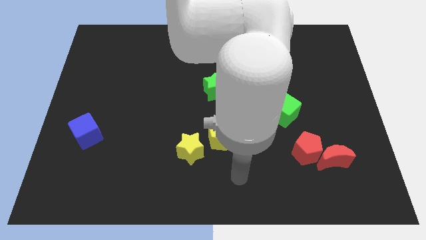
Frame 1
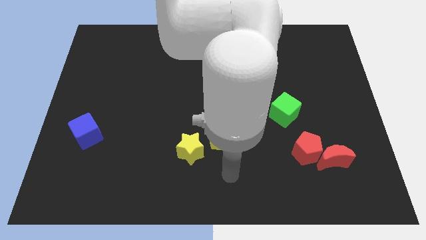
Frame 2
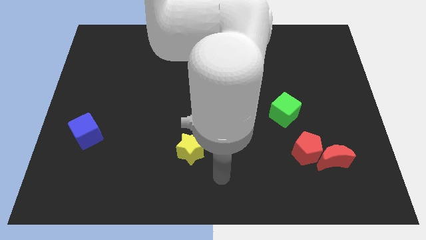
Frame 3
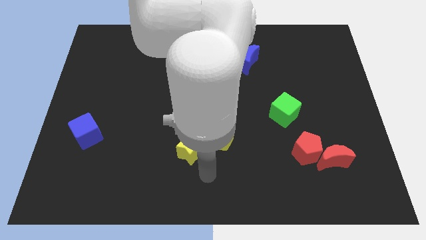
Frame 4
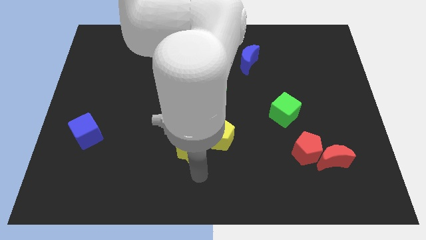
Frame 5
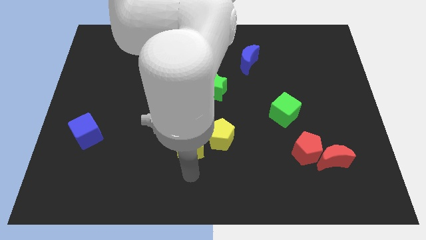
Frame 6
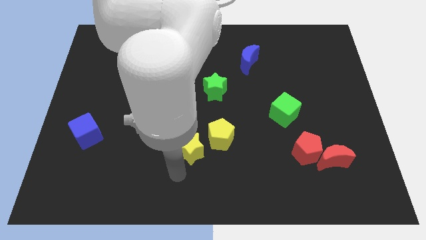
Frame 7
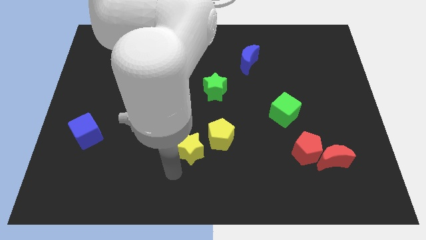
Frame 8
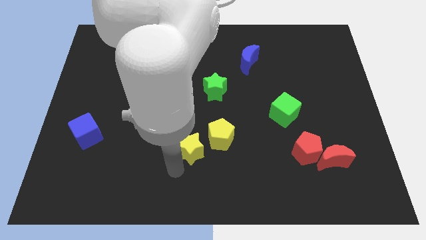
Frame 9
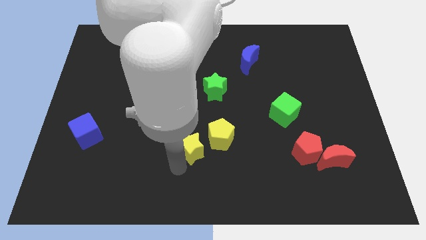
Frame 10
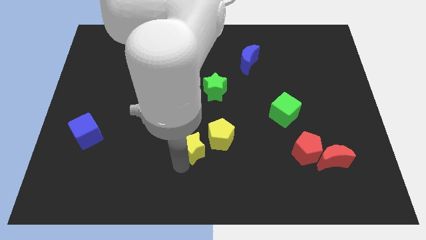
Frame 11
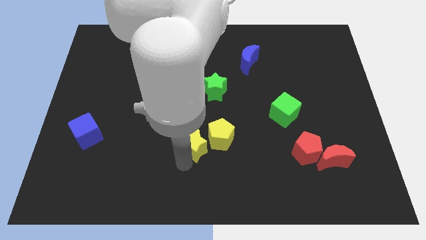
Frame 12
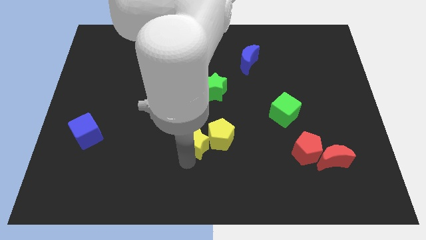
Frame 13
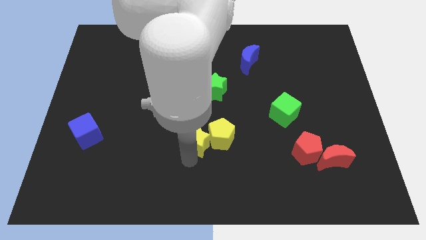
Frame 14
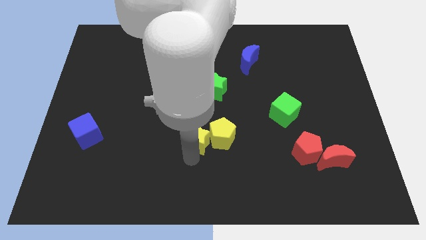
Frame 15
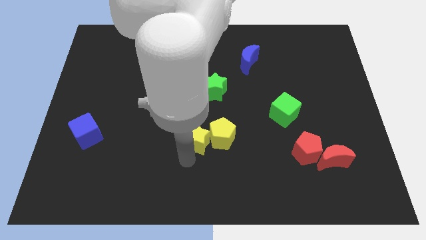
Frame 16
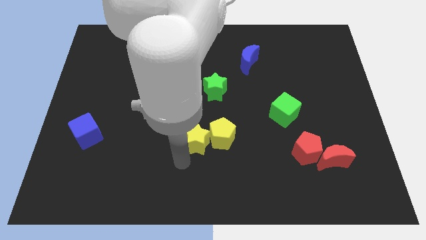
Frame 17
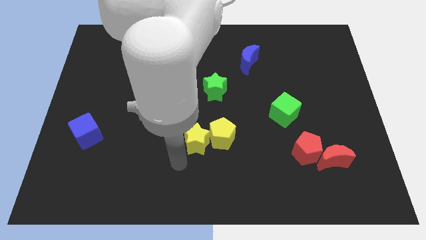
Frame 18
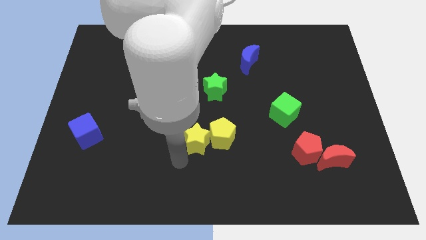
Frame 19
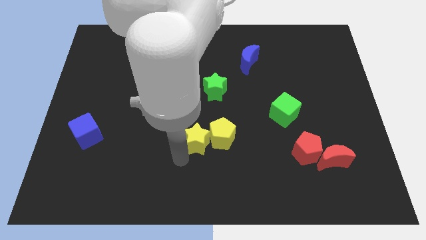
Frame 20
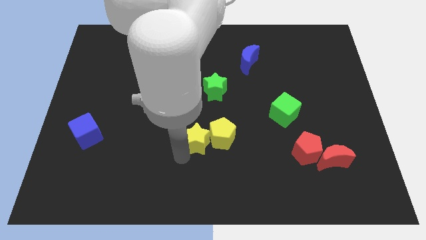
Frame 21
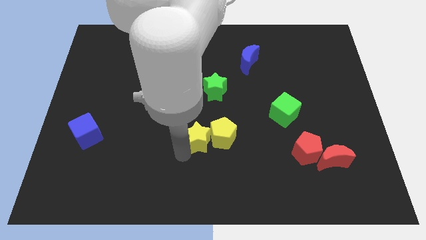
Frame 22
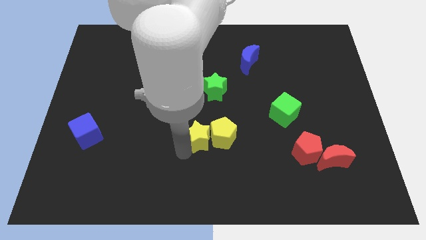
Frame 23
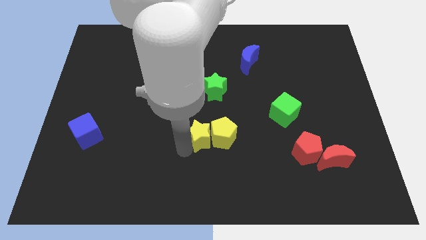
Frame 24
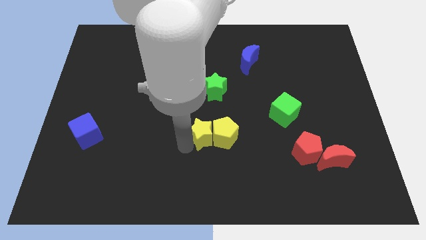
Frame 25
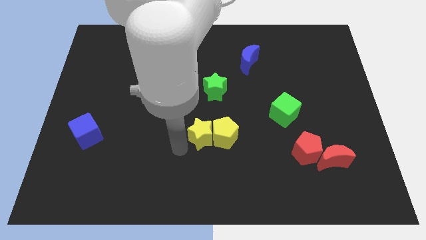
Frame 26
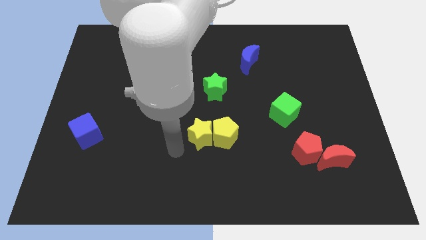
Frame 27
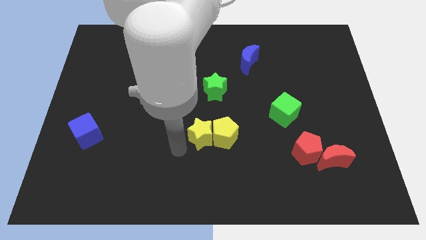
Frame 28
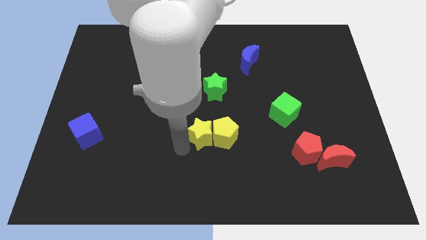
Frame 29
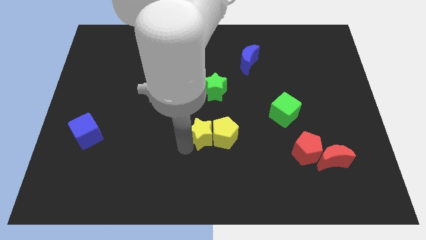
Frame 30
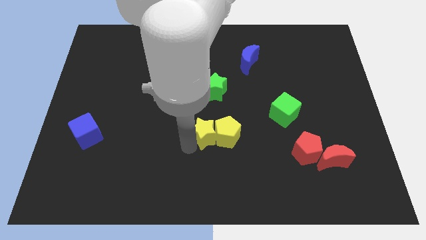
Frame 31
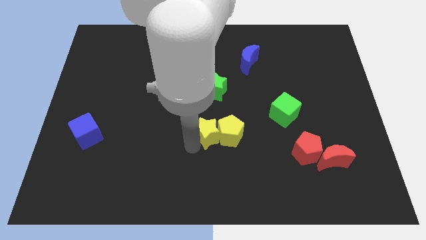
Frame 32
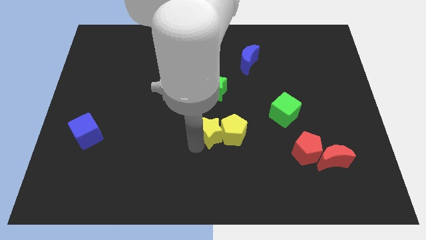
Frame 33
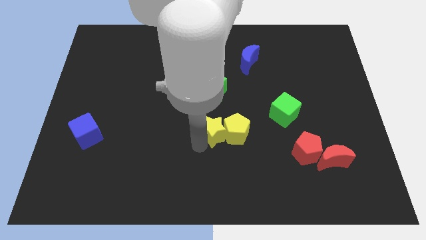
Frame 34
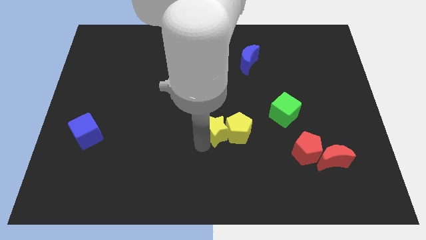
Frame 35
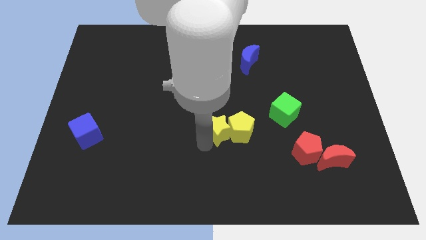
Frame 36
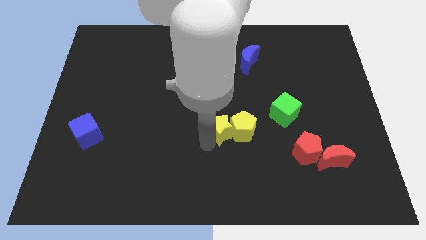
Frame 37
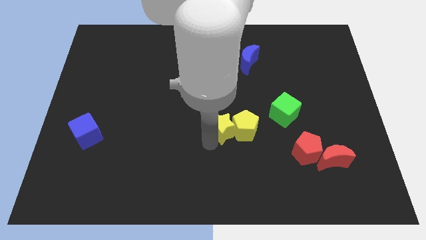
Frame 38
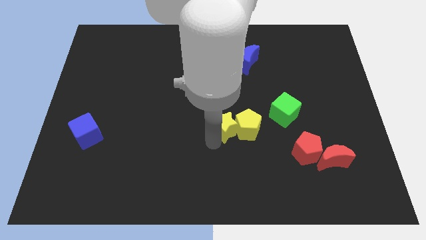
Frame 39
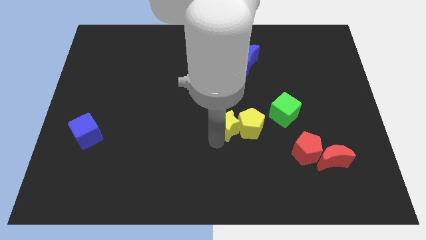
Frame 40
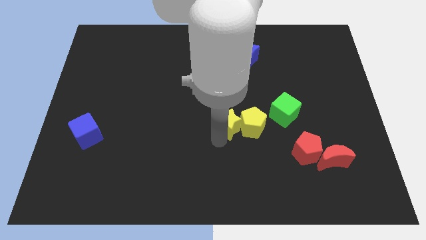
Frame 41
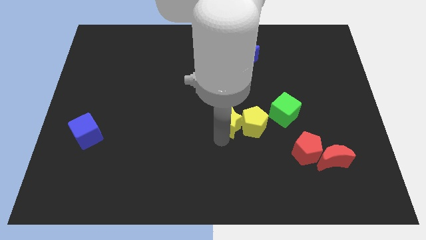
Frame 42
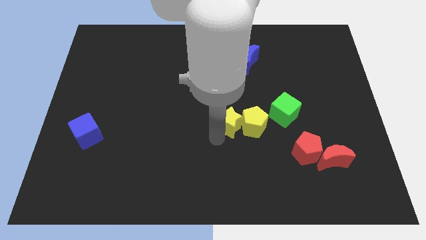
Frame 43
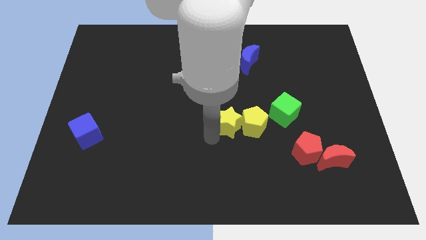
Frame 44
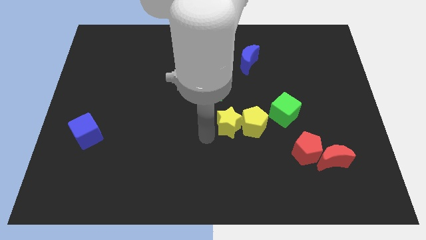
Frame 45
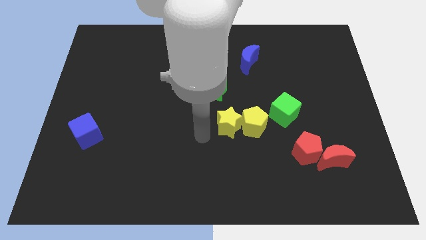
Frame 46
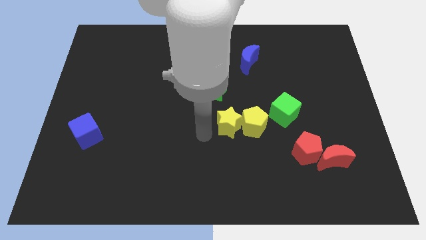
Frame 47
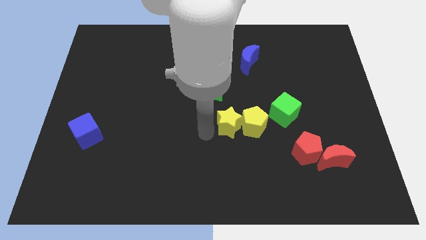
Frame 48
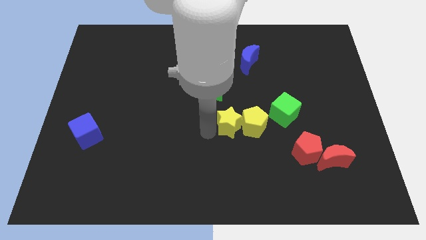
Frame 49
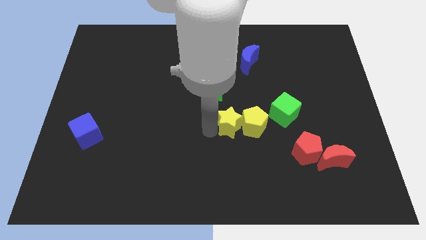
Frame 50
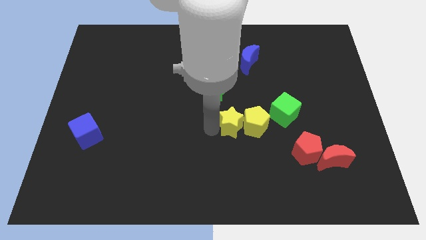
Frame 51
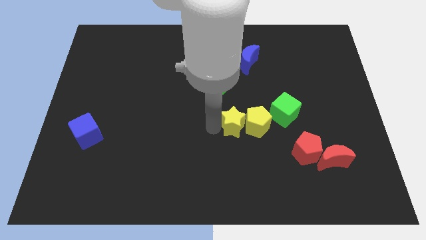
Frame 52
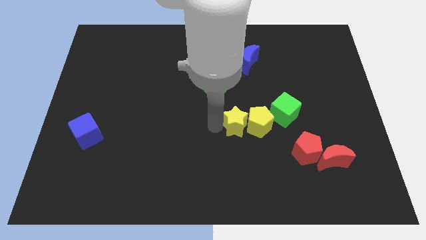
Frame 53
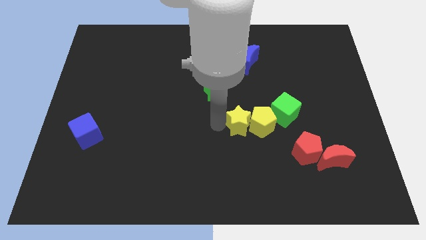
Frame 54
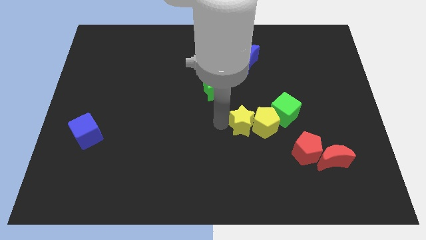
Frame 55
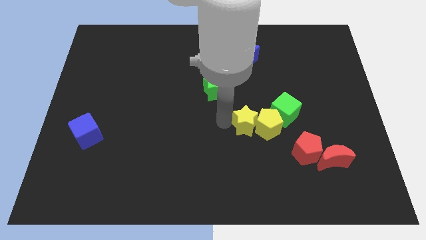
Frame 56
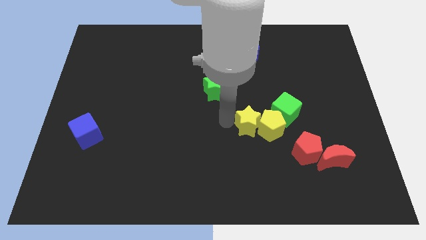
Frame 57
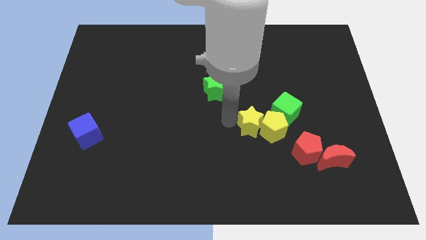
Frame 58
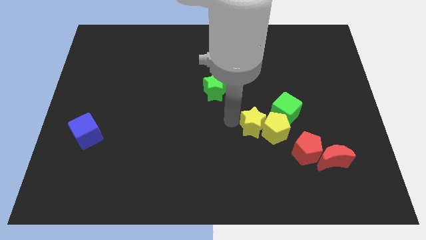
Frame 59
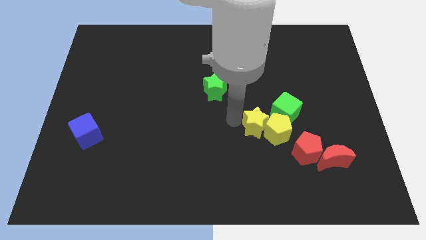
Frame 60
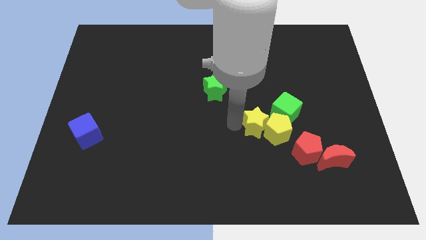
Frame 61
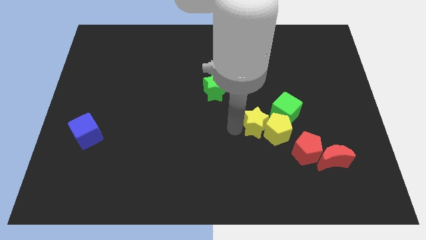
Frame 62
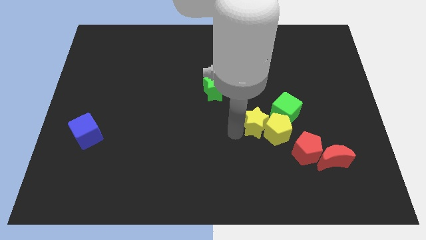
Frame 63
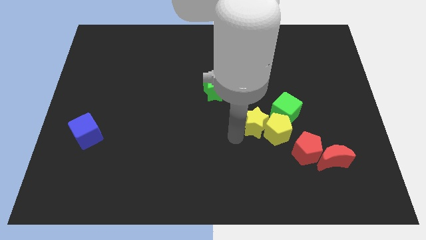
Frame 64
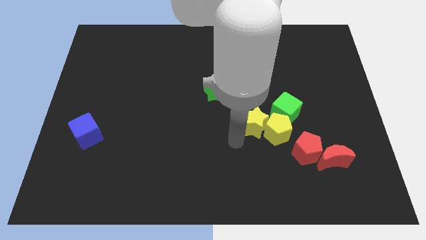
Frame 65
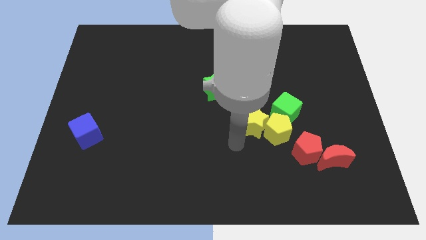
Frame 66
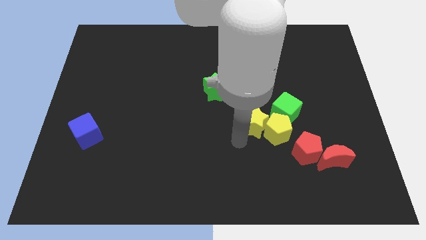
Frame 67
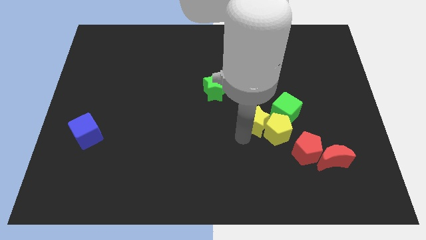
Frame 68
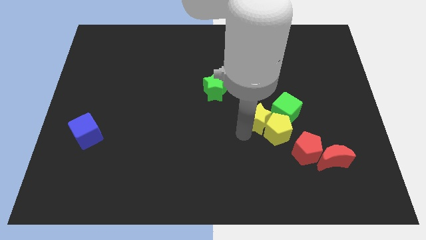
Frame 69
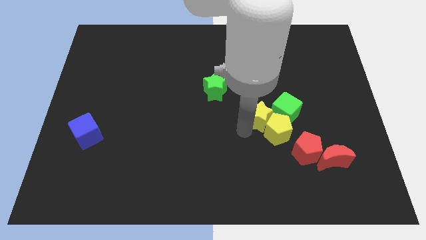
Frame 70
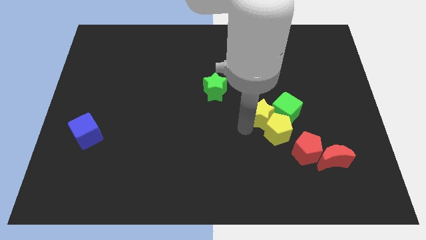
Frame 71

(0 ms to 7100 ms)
move the yellow star to the green cube
